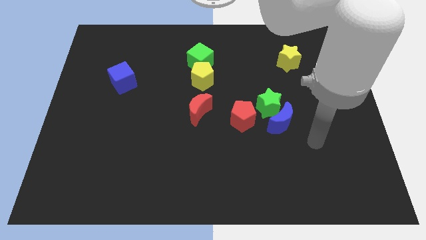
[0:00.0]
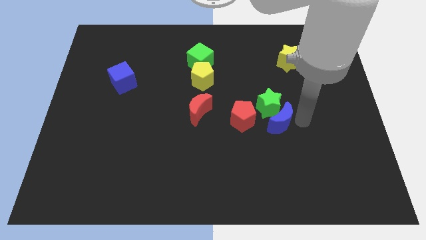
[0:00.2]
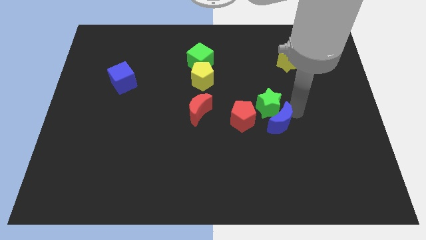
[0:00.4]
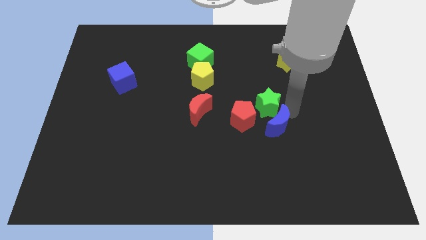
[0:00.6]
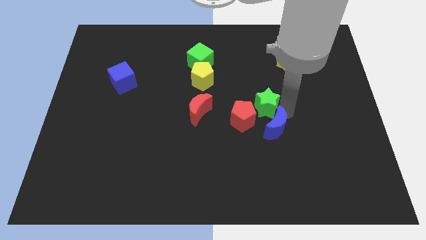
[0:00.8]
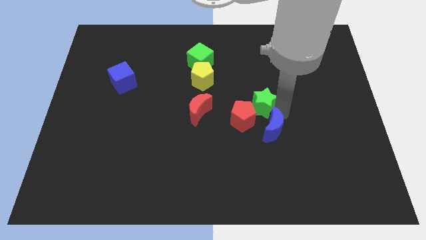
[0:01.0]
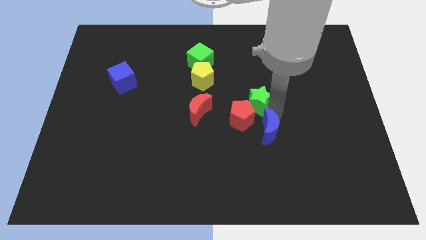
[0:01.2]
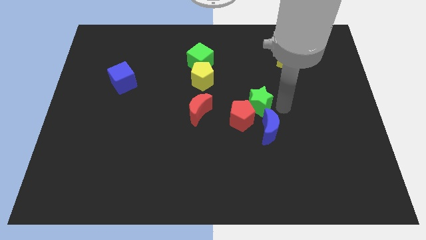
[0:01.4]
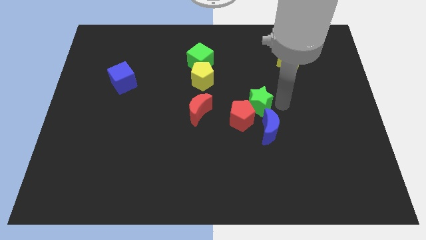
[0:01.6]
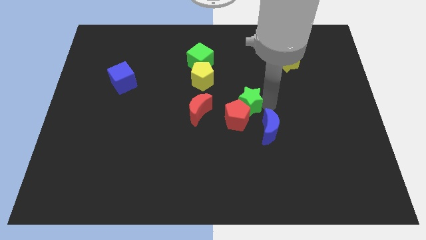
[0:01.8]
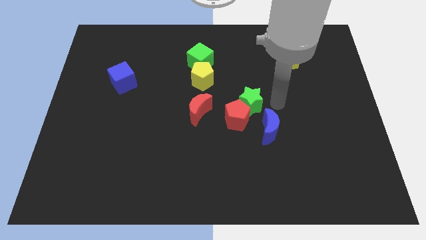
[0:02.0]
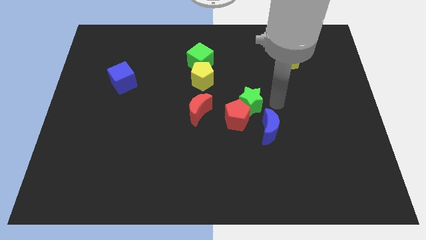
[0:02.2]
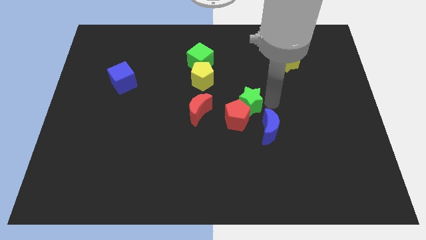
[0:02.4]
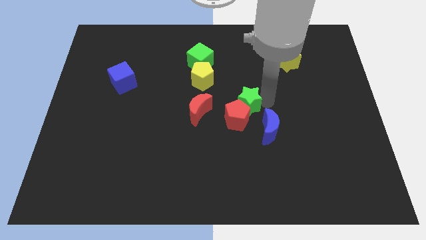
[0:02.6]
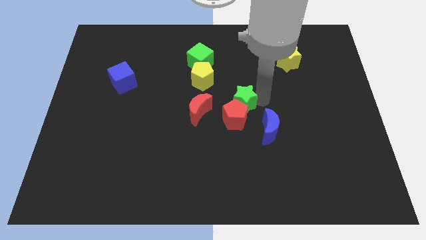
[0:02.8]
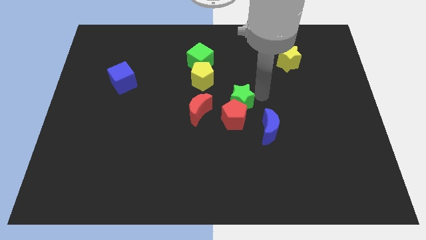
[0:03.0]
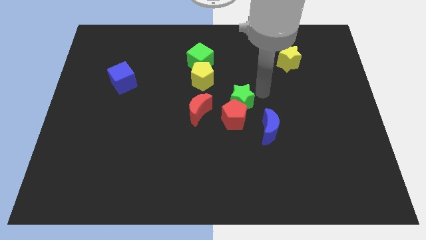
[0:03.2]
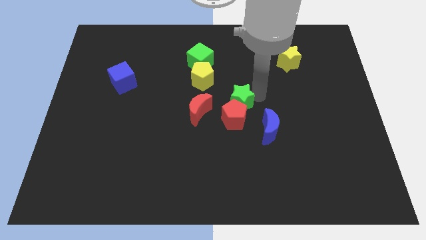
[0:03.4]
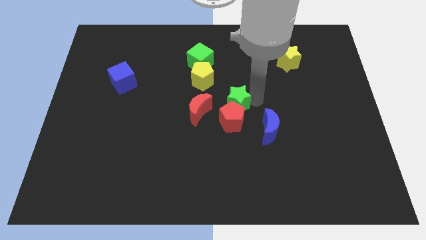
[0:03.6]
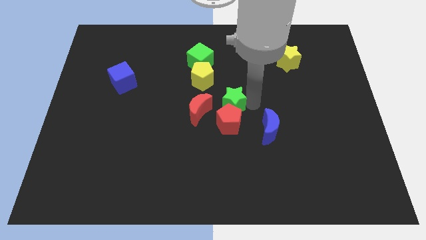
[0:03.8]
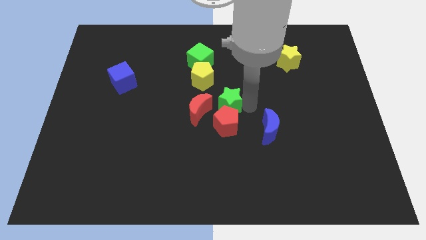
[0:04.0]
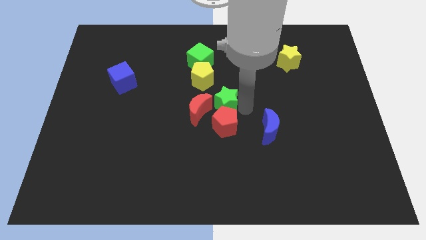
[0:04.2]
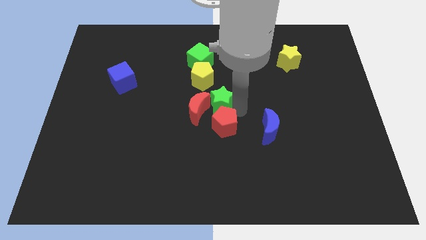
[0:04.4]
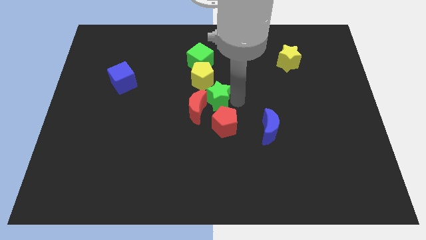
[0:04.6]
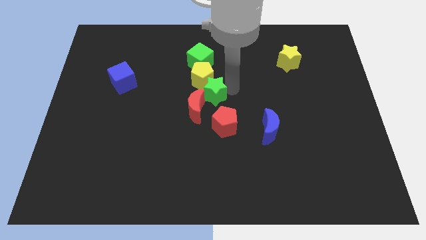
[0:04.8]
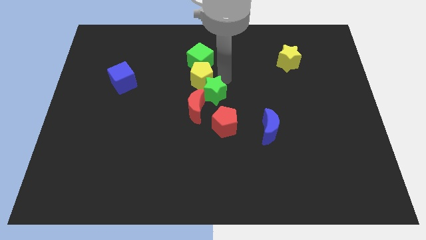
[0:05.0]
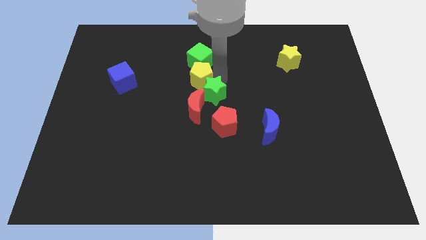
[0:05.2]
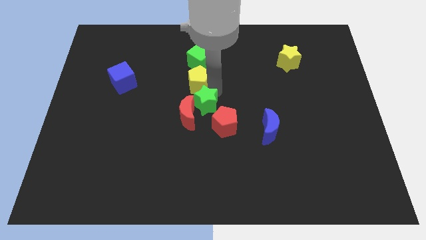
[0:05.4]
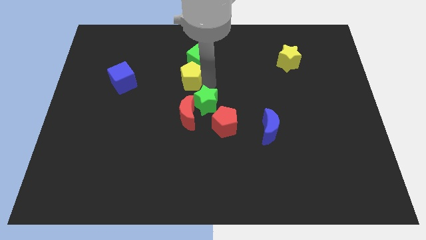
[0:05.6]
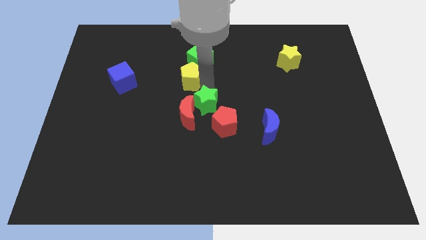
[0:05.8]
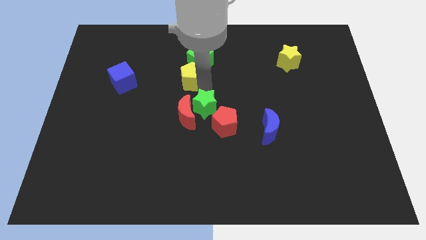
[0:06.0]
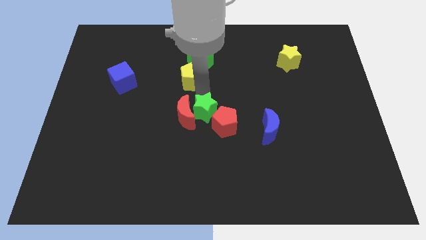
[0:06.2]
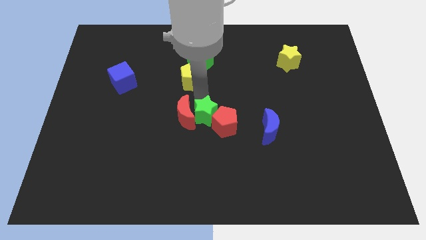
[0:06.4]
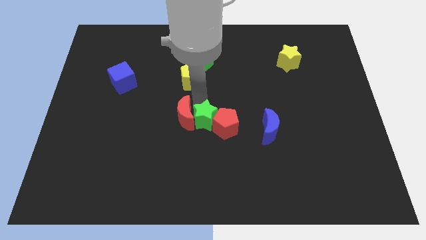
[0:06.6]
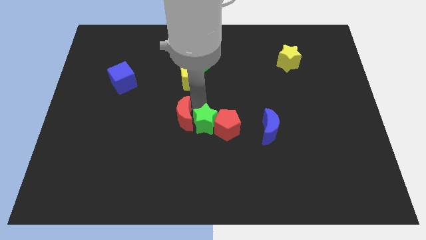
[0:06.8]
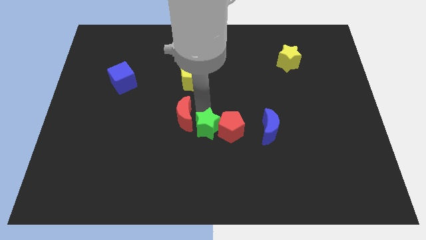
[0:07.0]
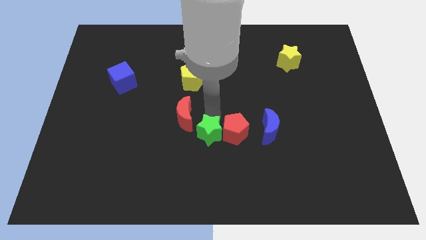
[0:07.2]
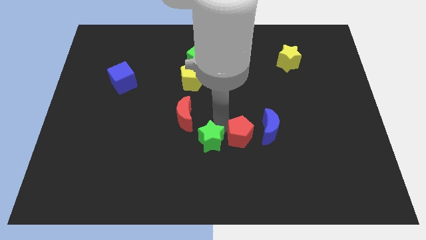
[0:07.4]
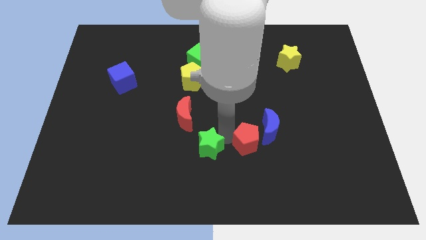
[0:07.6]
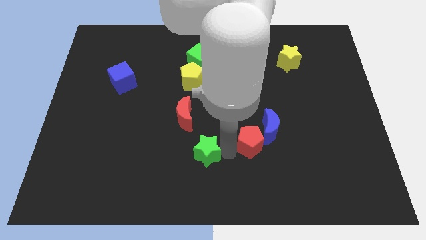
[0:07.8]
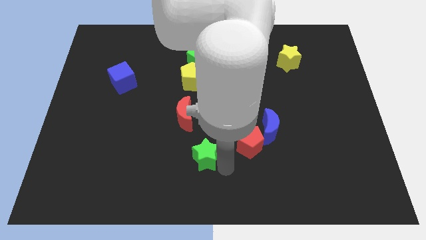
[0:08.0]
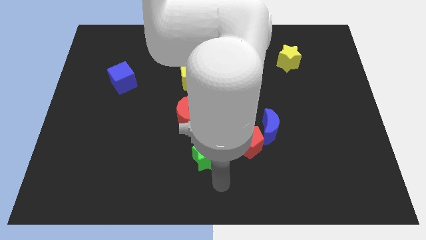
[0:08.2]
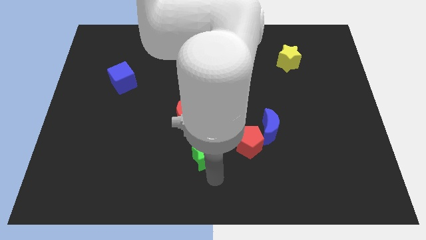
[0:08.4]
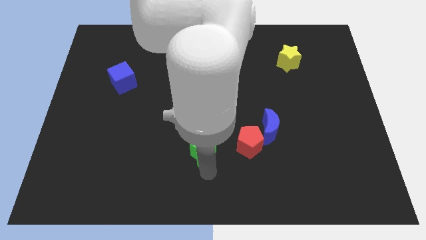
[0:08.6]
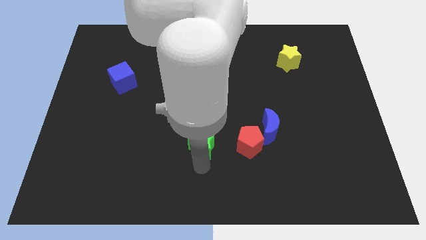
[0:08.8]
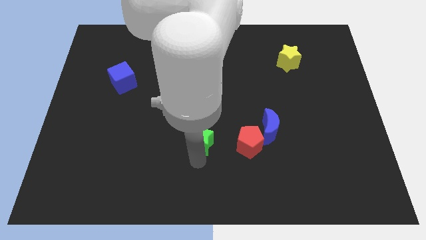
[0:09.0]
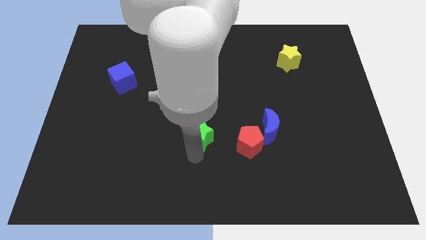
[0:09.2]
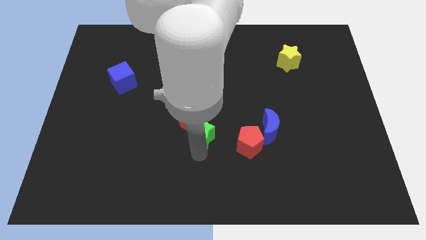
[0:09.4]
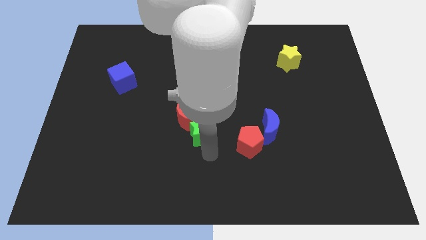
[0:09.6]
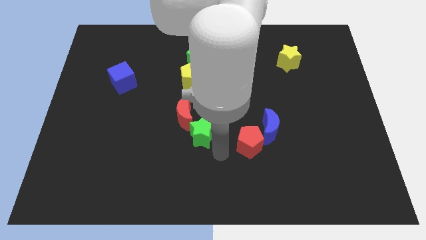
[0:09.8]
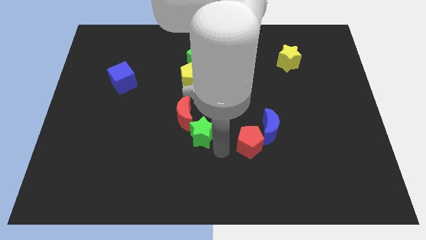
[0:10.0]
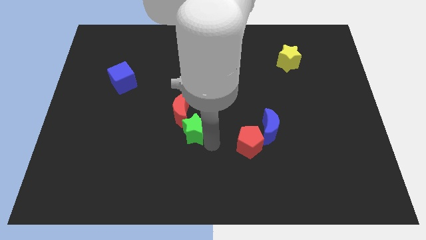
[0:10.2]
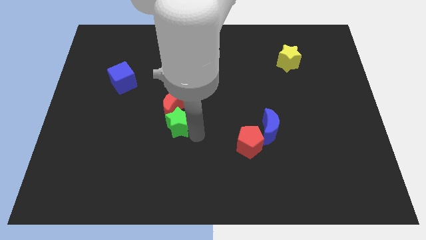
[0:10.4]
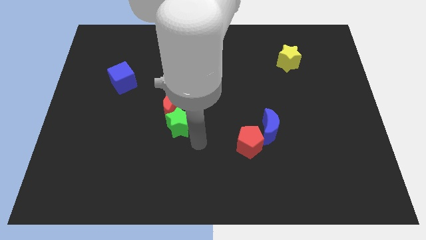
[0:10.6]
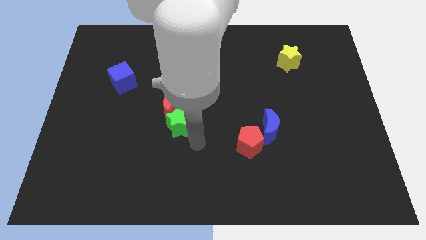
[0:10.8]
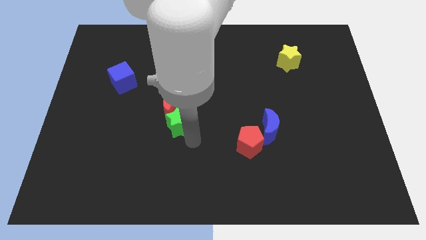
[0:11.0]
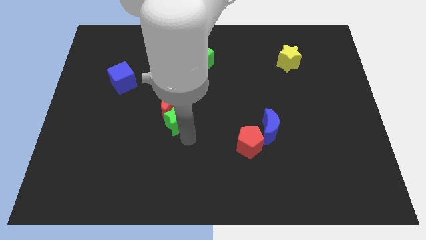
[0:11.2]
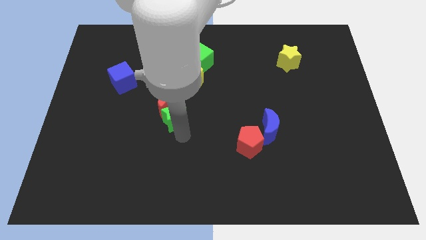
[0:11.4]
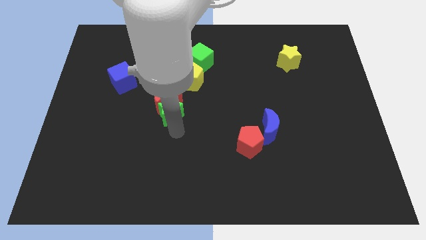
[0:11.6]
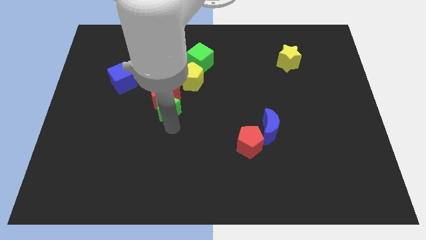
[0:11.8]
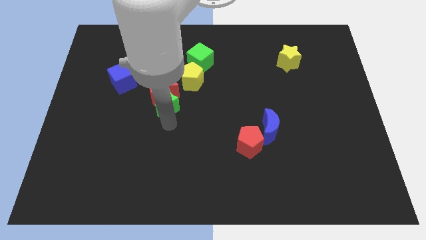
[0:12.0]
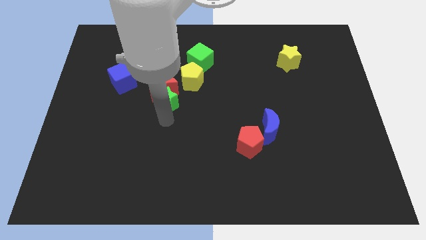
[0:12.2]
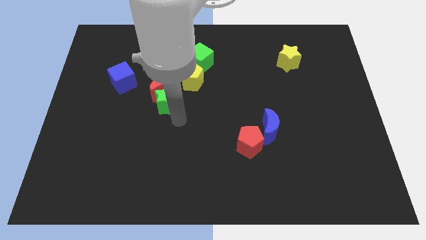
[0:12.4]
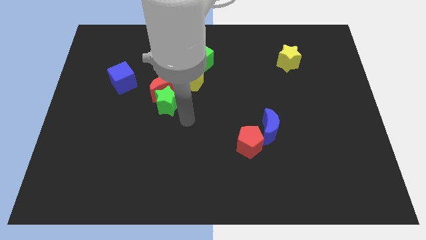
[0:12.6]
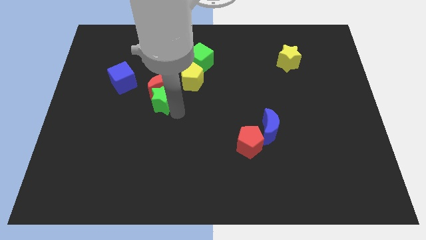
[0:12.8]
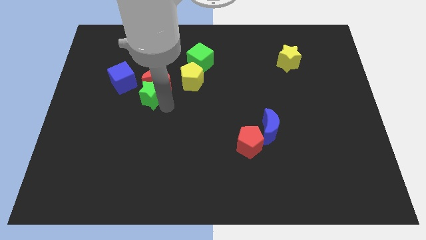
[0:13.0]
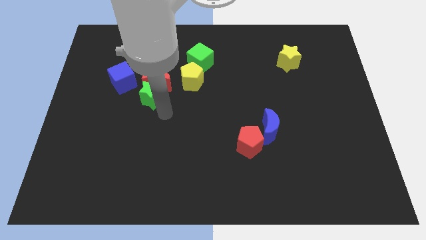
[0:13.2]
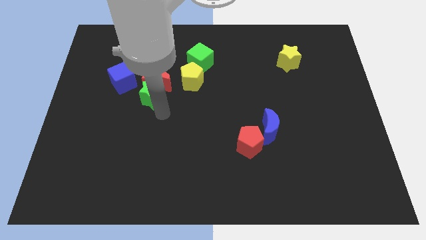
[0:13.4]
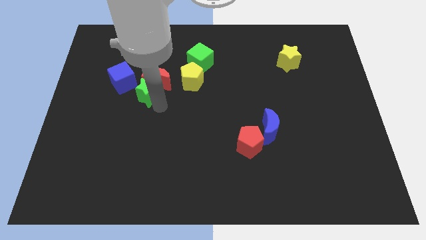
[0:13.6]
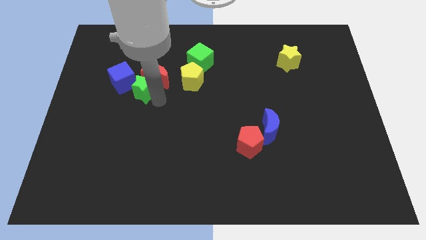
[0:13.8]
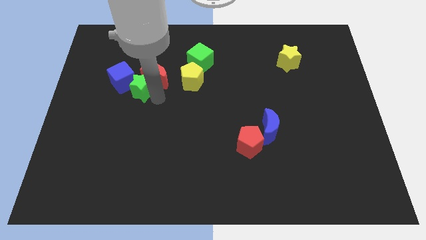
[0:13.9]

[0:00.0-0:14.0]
move the green star towards the blue cube

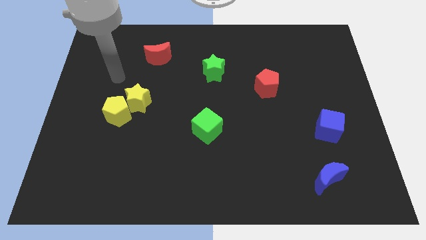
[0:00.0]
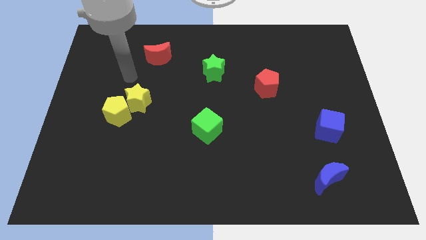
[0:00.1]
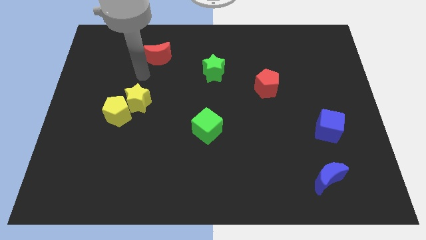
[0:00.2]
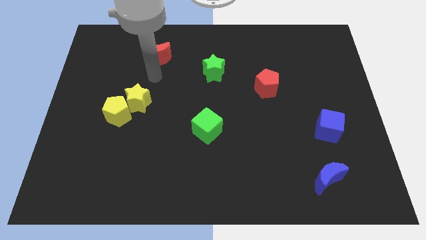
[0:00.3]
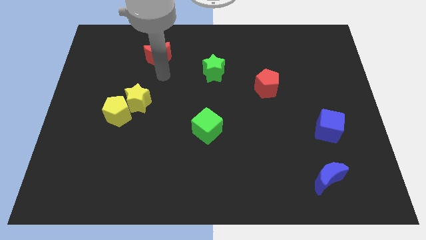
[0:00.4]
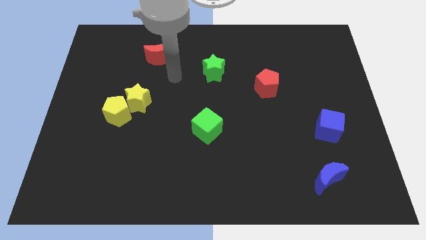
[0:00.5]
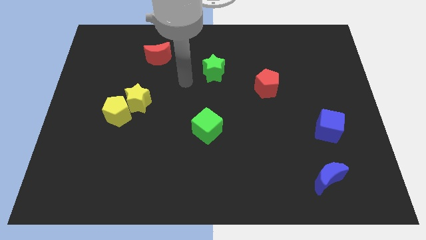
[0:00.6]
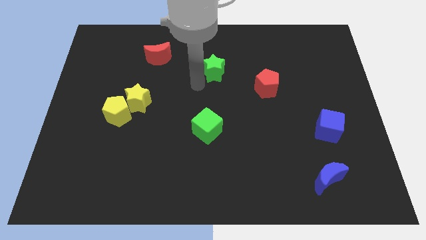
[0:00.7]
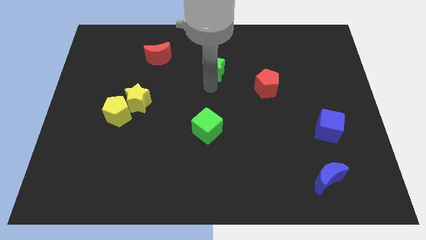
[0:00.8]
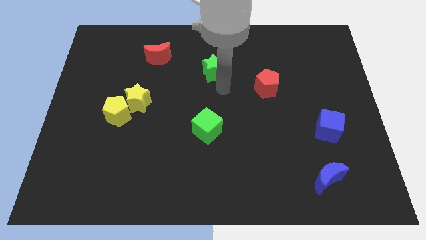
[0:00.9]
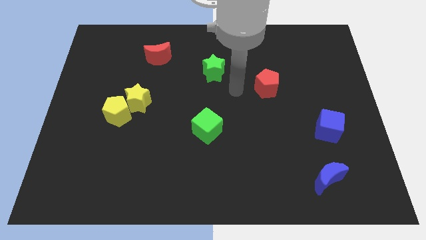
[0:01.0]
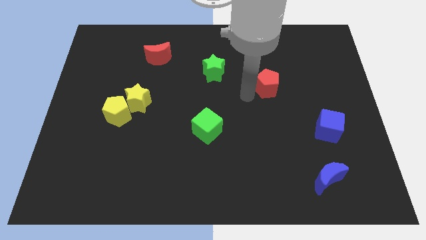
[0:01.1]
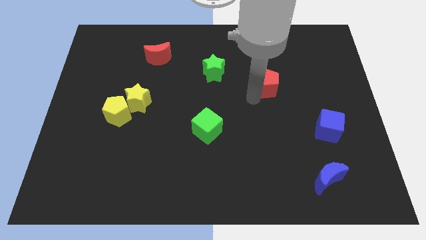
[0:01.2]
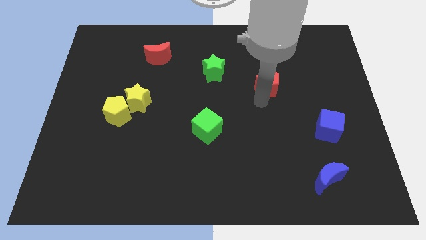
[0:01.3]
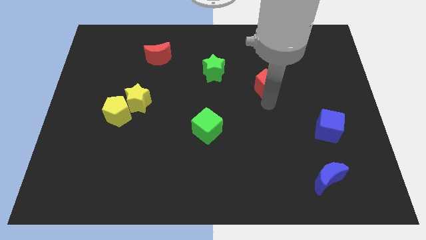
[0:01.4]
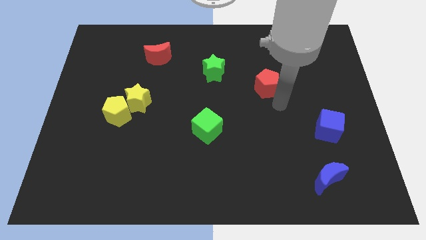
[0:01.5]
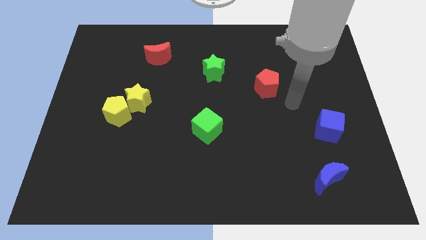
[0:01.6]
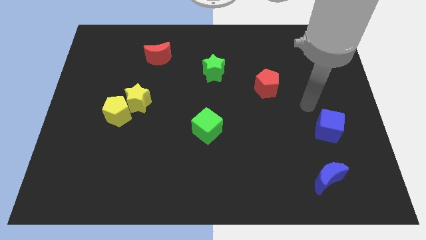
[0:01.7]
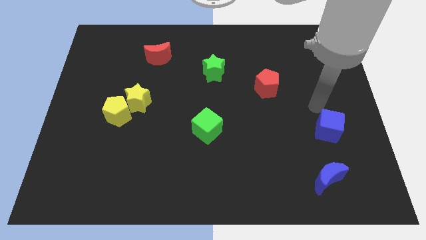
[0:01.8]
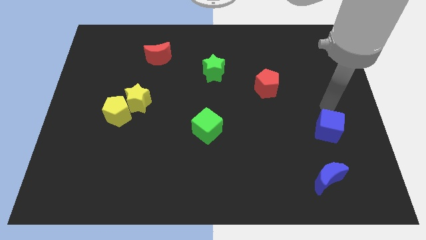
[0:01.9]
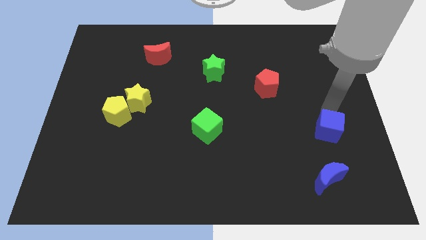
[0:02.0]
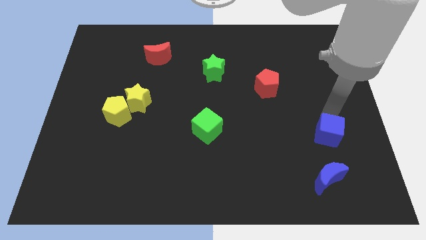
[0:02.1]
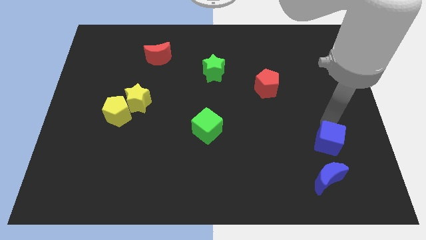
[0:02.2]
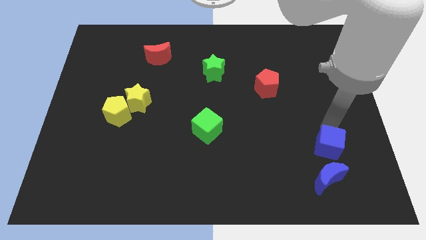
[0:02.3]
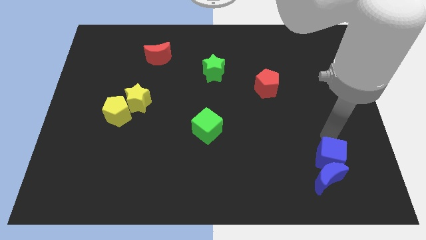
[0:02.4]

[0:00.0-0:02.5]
push the blue cube to the blue moon
